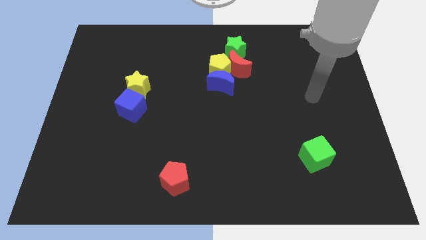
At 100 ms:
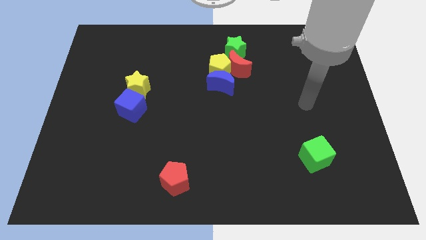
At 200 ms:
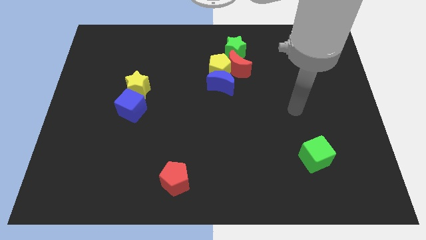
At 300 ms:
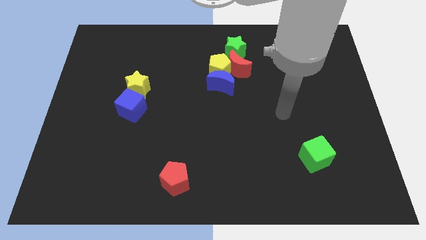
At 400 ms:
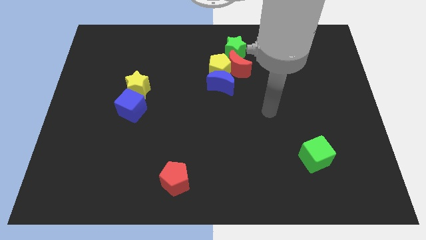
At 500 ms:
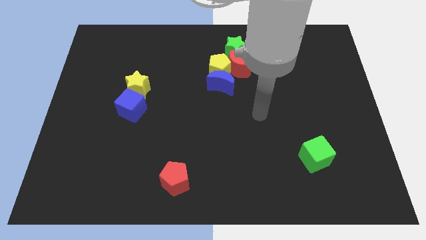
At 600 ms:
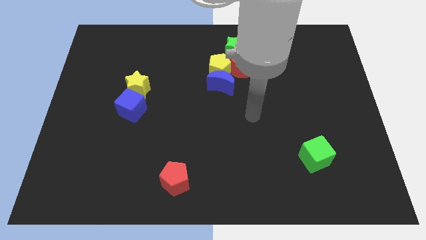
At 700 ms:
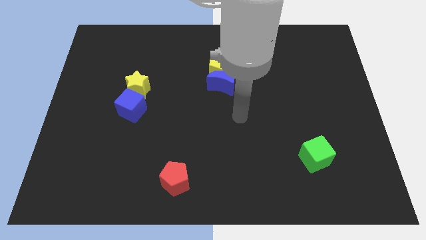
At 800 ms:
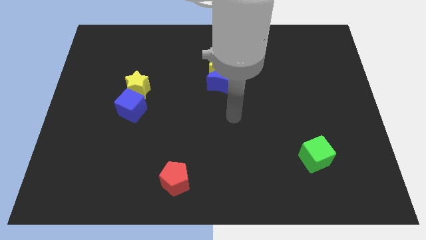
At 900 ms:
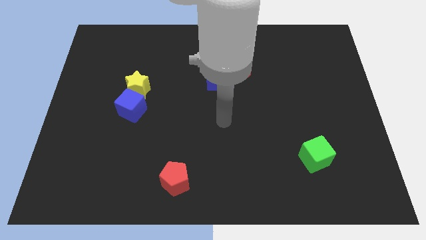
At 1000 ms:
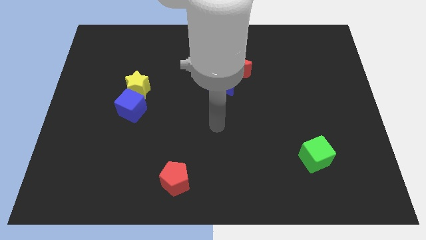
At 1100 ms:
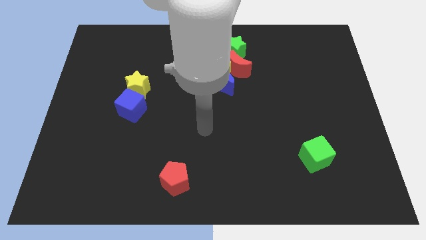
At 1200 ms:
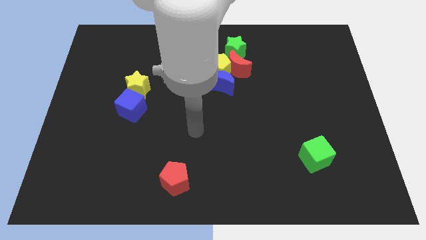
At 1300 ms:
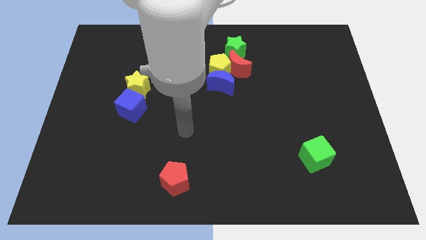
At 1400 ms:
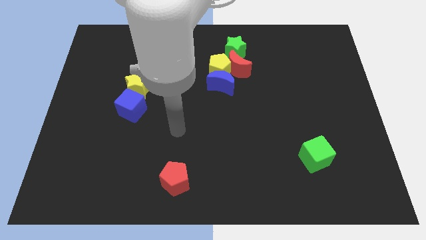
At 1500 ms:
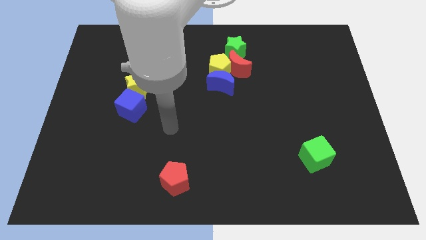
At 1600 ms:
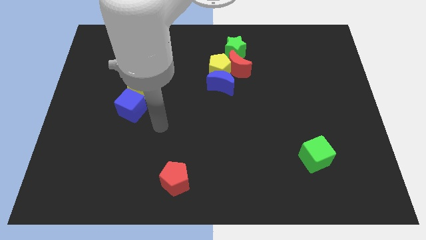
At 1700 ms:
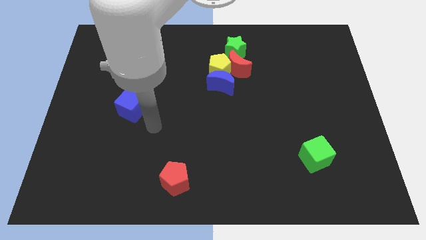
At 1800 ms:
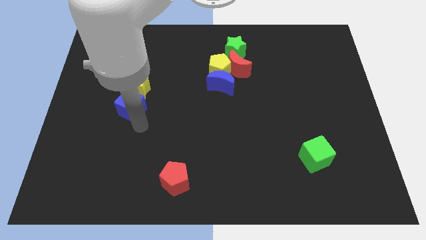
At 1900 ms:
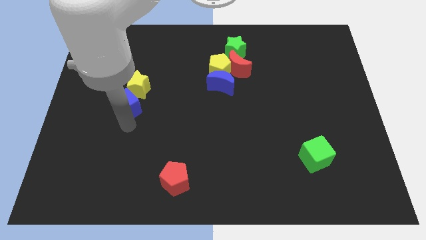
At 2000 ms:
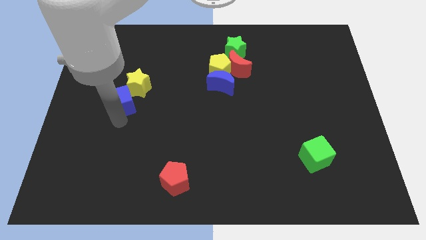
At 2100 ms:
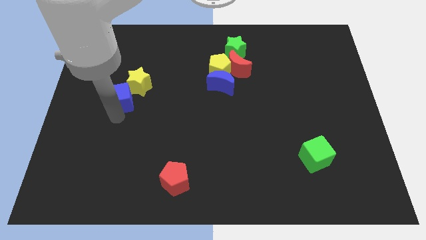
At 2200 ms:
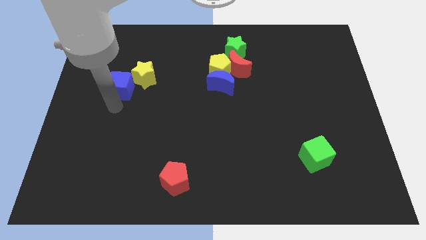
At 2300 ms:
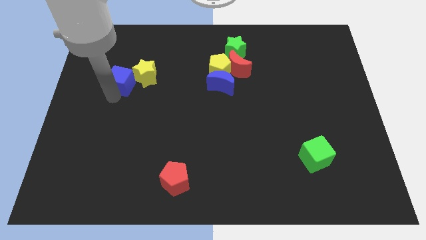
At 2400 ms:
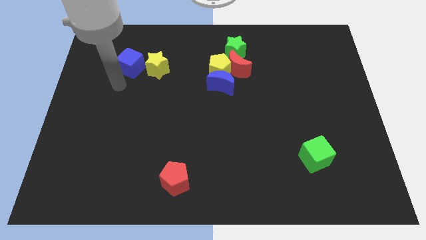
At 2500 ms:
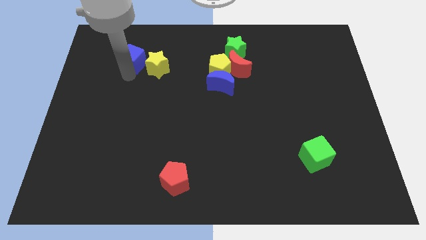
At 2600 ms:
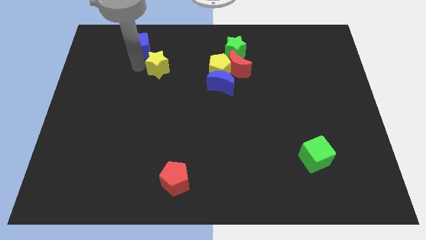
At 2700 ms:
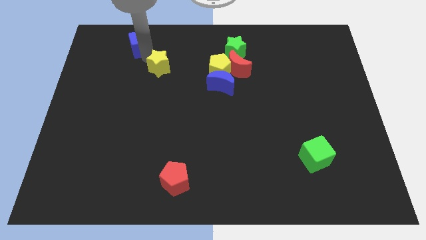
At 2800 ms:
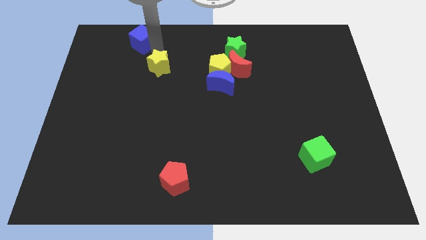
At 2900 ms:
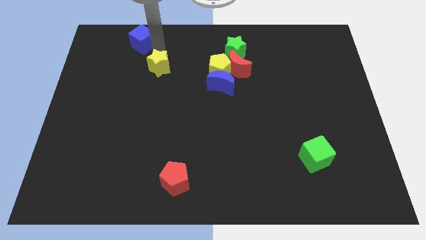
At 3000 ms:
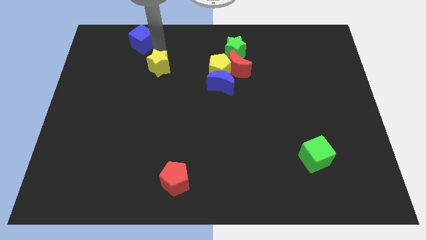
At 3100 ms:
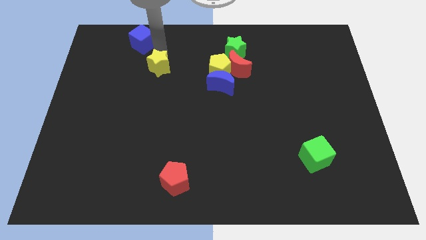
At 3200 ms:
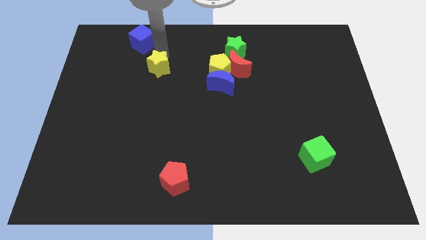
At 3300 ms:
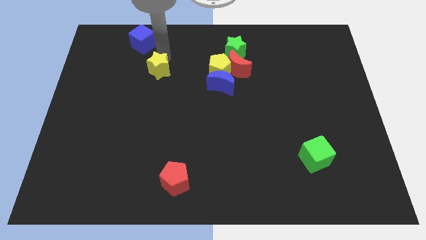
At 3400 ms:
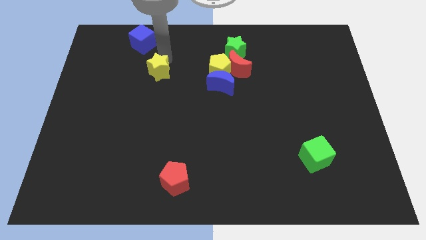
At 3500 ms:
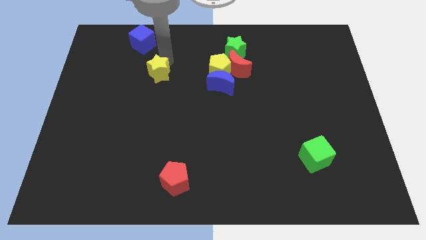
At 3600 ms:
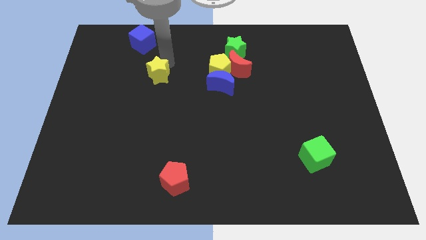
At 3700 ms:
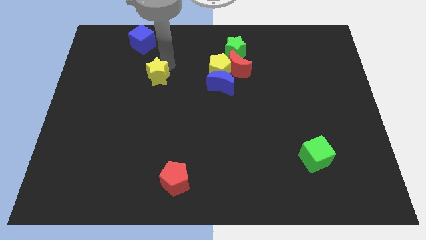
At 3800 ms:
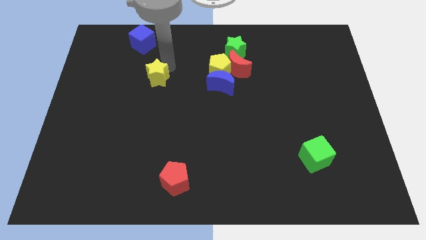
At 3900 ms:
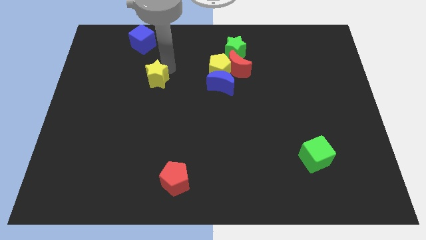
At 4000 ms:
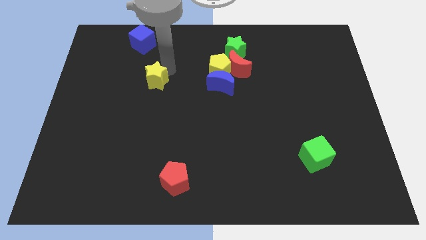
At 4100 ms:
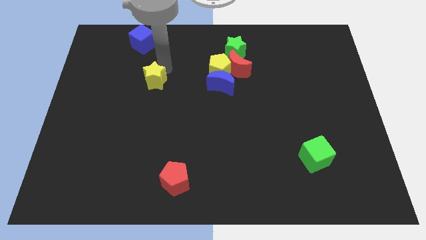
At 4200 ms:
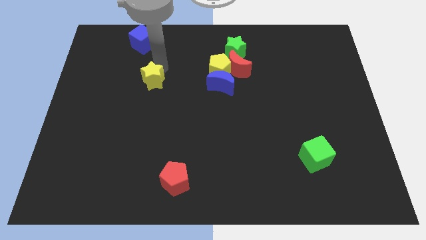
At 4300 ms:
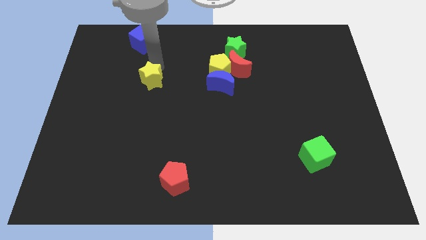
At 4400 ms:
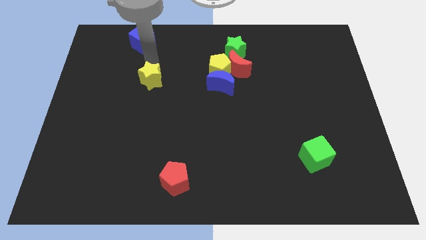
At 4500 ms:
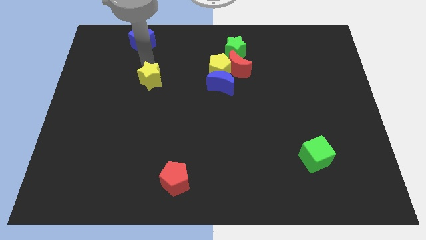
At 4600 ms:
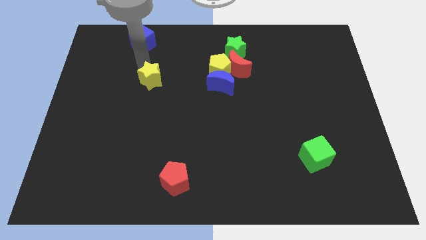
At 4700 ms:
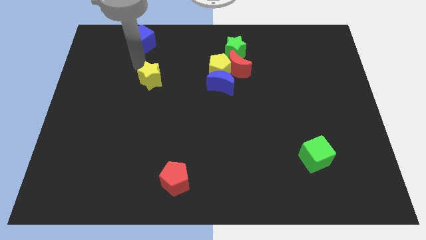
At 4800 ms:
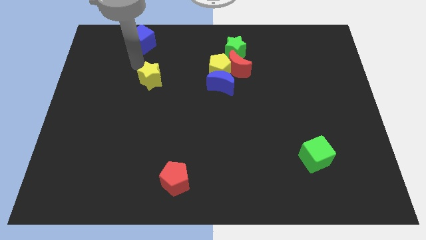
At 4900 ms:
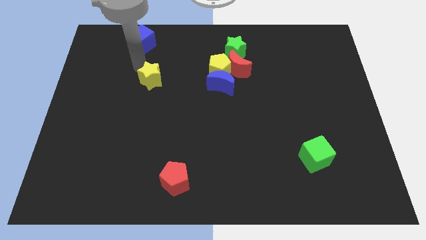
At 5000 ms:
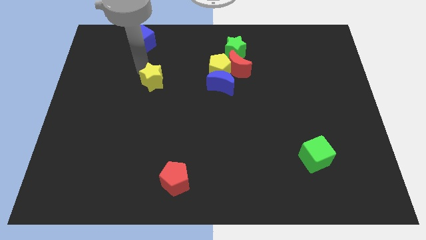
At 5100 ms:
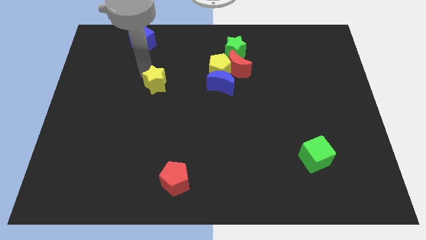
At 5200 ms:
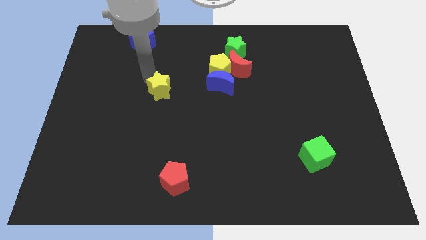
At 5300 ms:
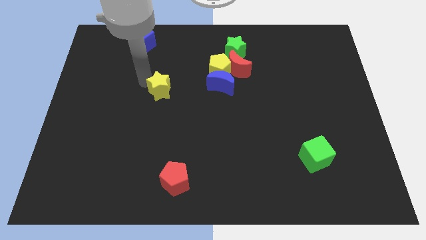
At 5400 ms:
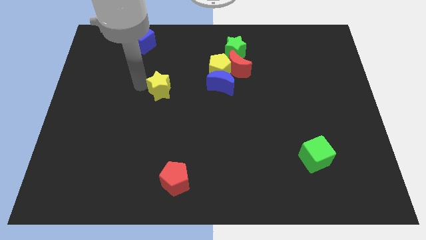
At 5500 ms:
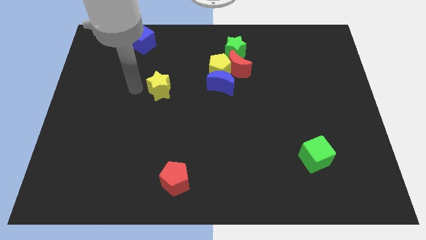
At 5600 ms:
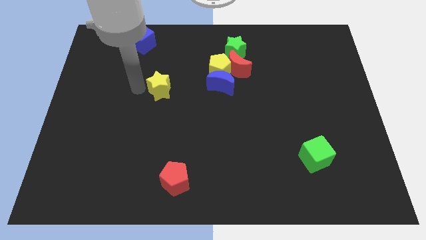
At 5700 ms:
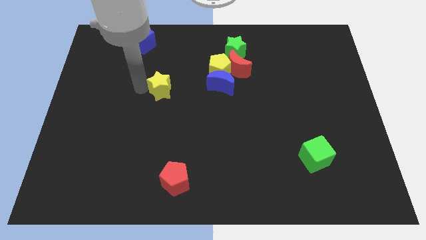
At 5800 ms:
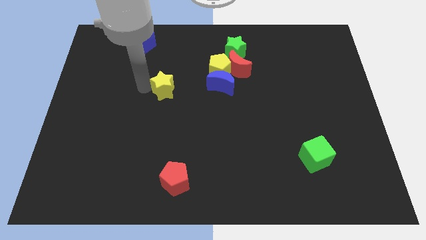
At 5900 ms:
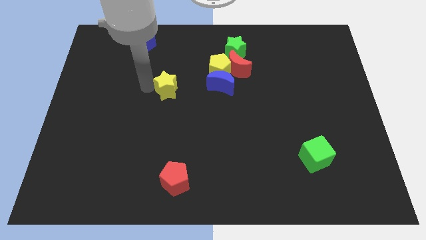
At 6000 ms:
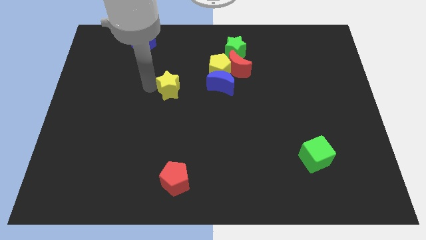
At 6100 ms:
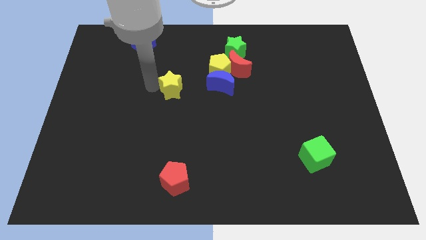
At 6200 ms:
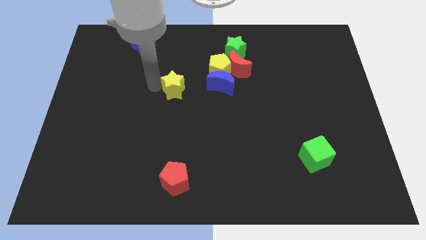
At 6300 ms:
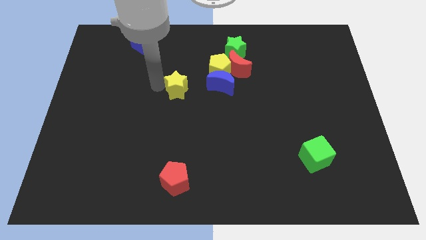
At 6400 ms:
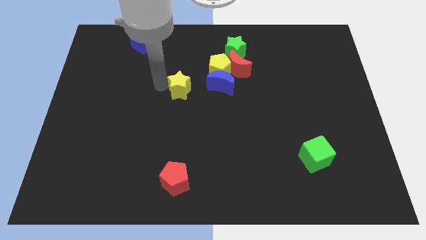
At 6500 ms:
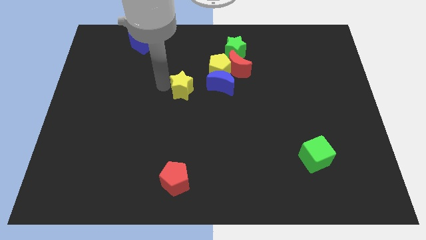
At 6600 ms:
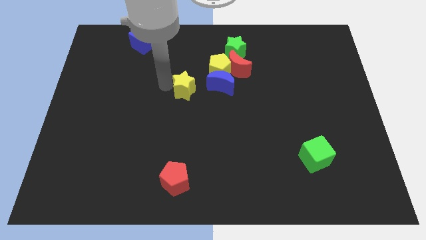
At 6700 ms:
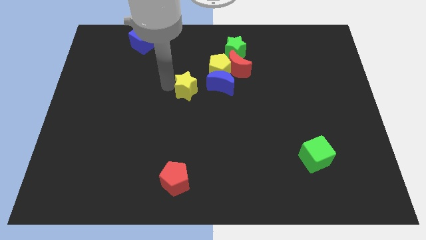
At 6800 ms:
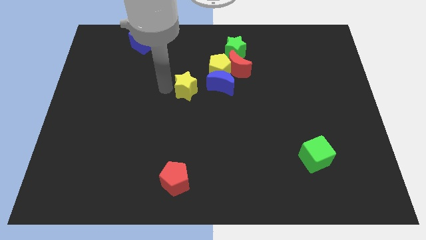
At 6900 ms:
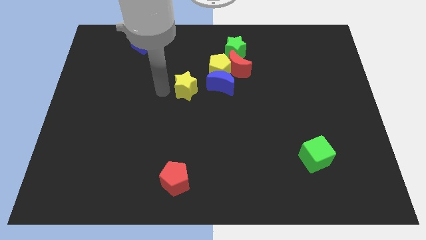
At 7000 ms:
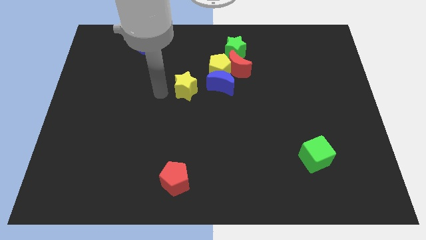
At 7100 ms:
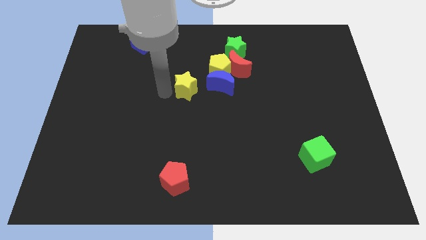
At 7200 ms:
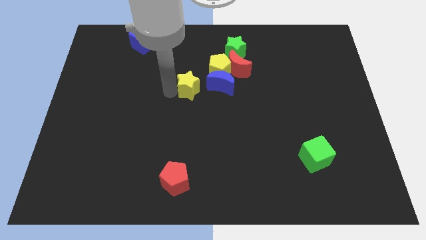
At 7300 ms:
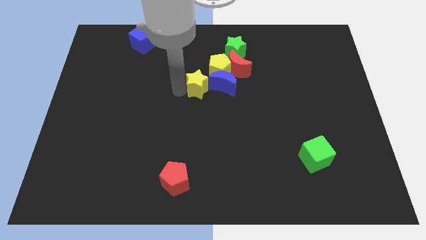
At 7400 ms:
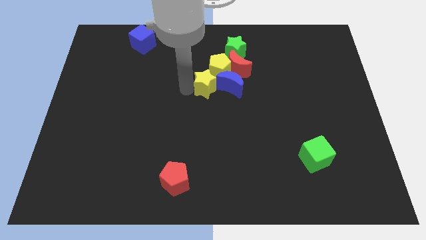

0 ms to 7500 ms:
slide the yellow star to the blue moon
